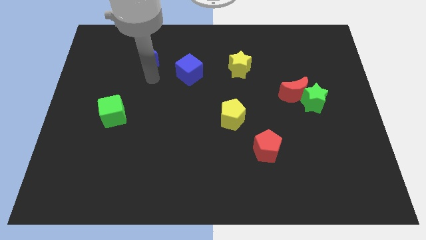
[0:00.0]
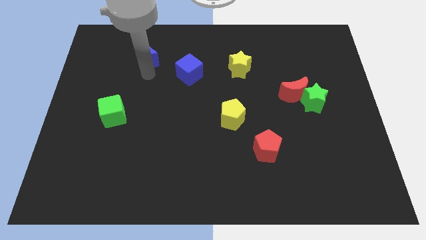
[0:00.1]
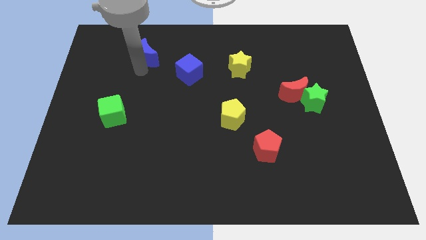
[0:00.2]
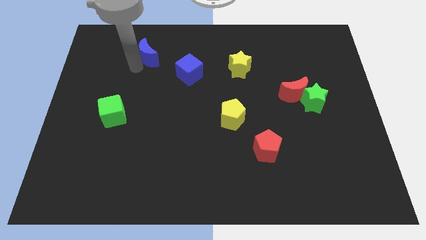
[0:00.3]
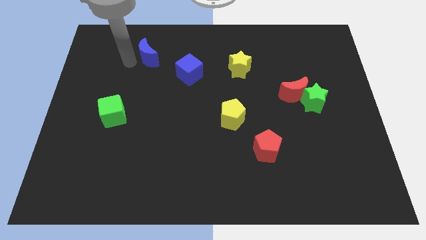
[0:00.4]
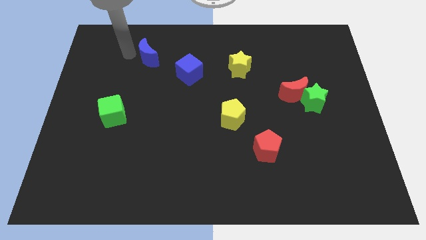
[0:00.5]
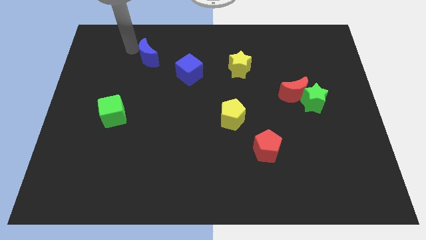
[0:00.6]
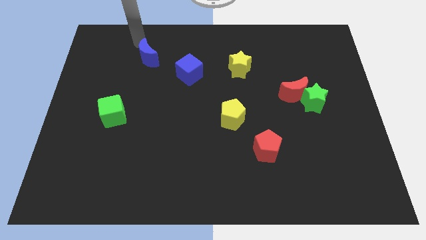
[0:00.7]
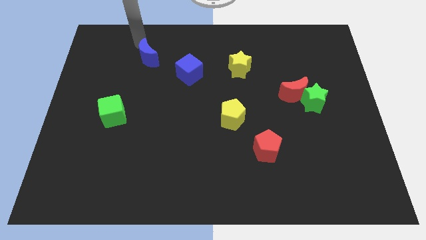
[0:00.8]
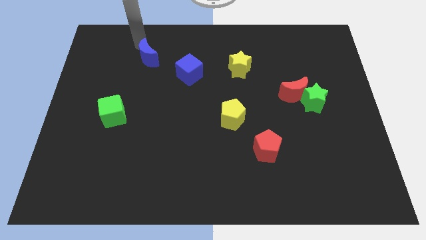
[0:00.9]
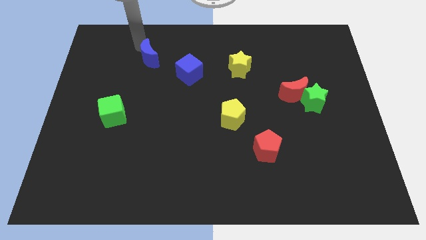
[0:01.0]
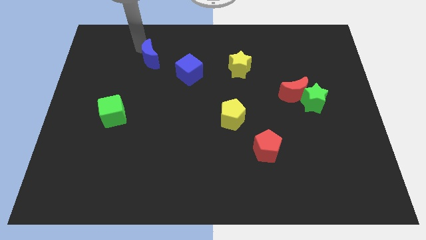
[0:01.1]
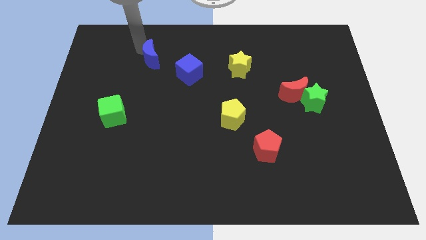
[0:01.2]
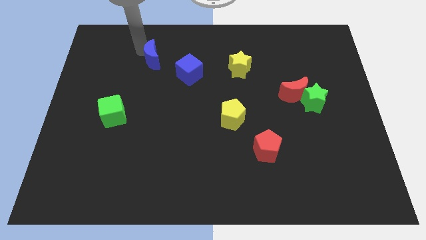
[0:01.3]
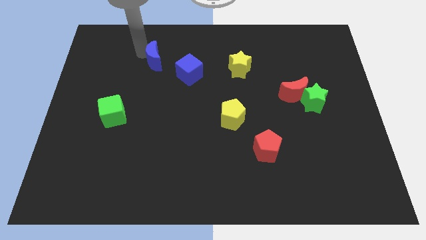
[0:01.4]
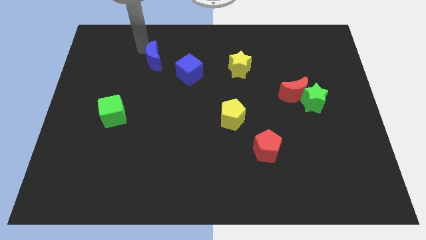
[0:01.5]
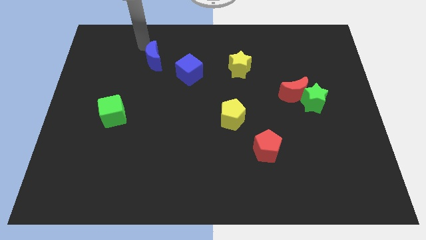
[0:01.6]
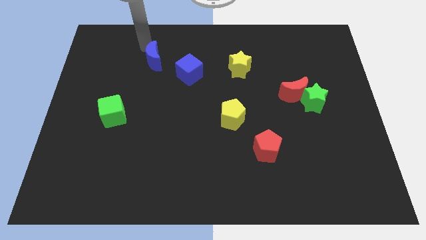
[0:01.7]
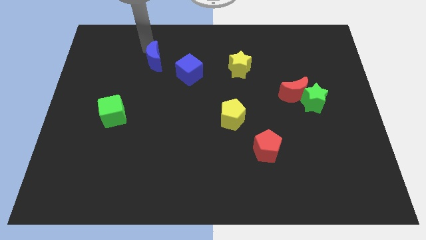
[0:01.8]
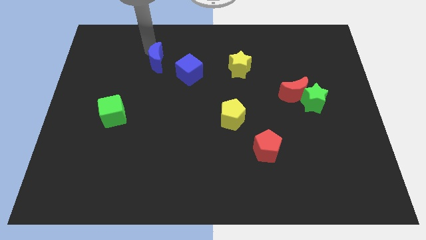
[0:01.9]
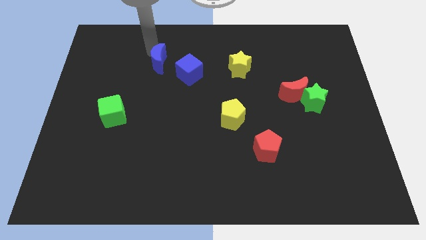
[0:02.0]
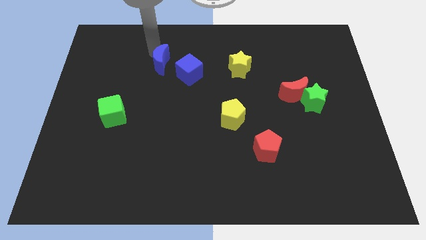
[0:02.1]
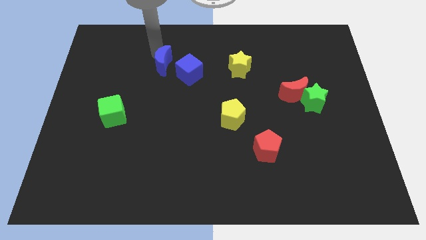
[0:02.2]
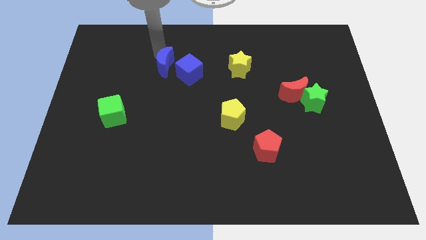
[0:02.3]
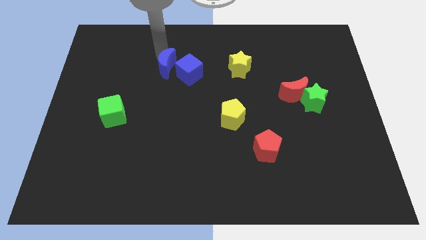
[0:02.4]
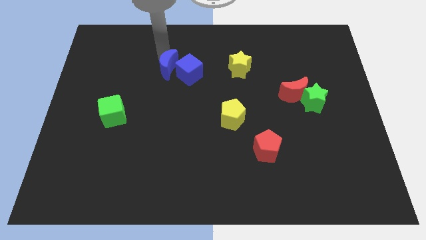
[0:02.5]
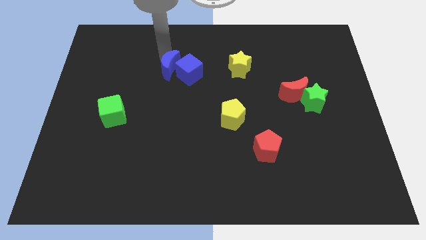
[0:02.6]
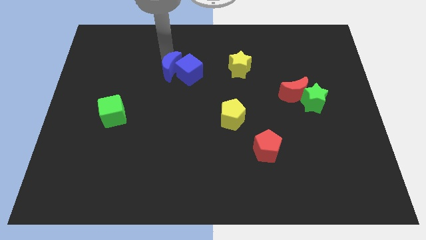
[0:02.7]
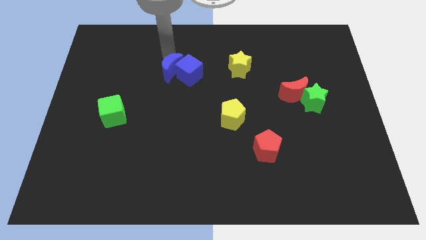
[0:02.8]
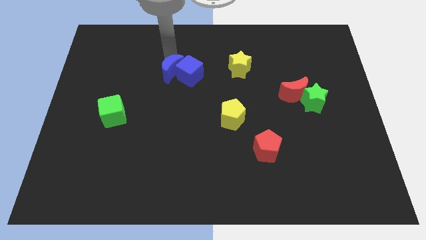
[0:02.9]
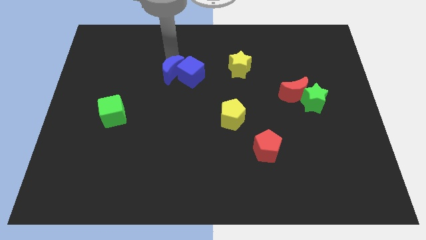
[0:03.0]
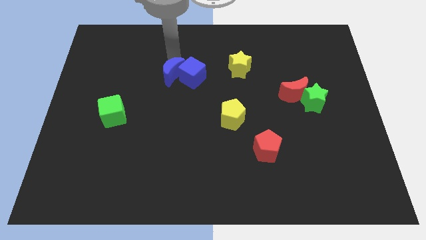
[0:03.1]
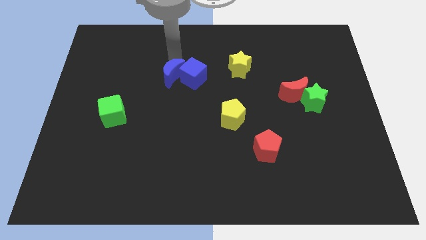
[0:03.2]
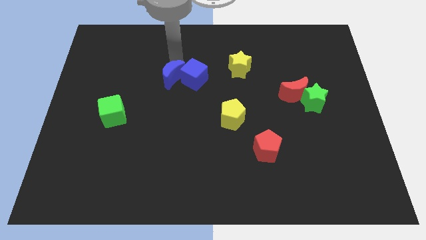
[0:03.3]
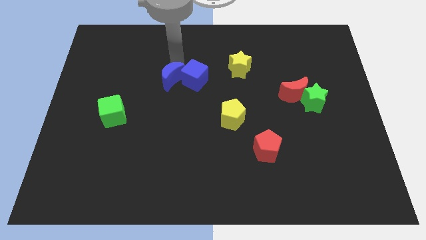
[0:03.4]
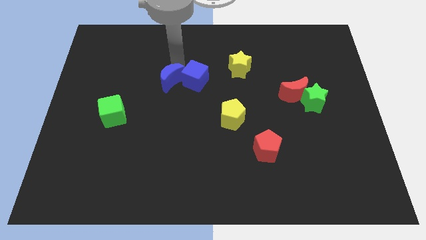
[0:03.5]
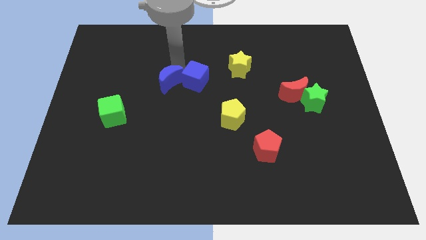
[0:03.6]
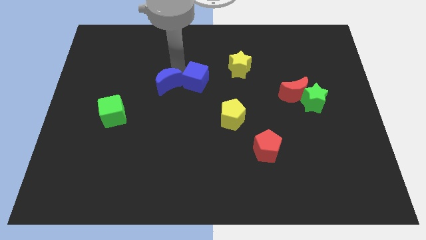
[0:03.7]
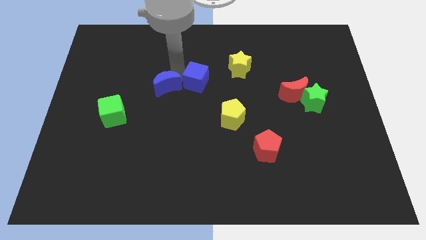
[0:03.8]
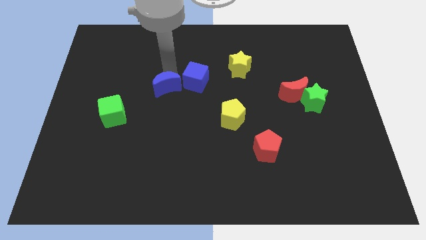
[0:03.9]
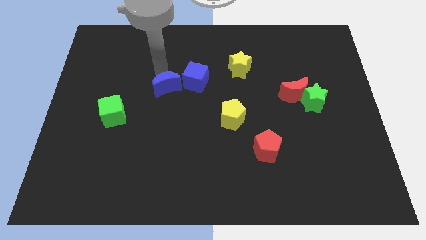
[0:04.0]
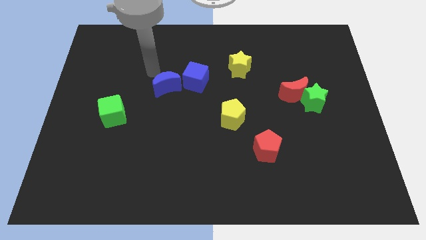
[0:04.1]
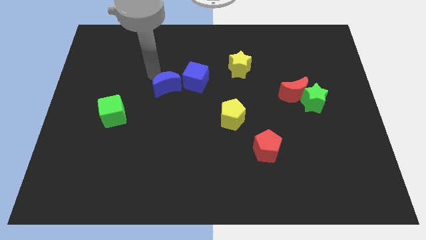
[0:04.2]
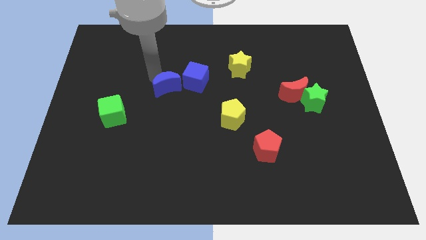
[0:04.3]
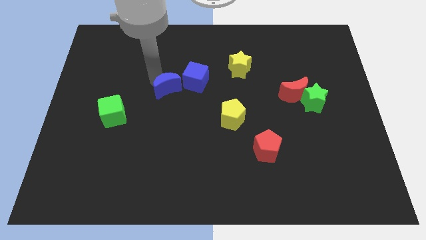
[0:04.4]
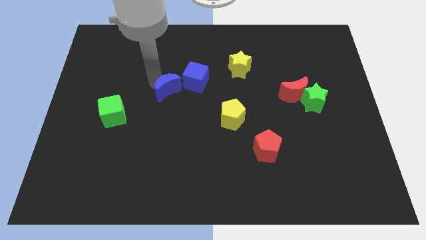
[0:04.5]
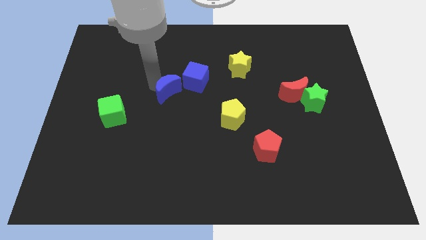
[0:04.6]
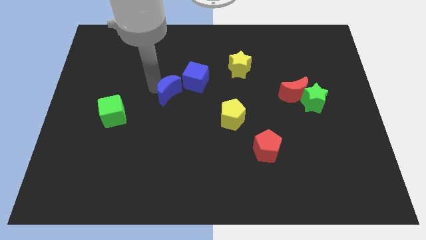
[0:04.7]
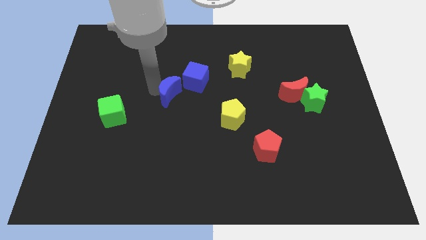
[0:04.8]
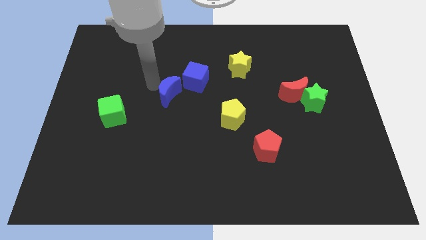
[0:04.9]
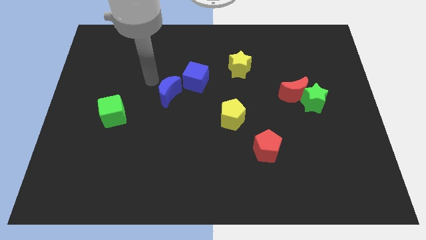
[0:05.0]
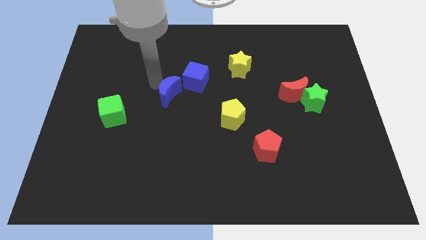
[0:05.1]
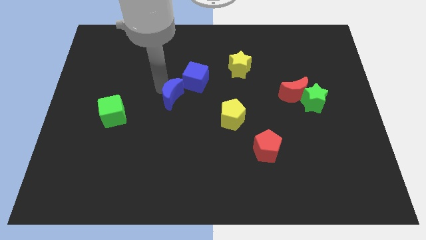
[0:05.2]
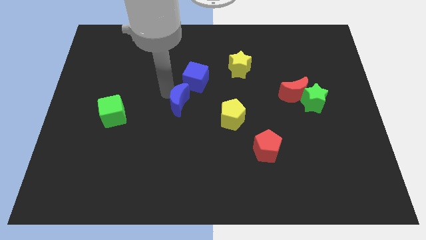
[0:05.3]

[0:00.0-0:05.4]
slide the blue moon to the bottom side of the blue cube
